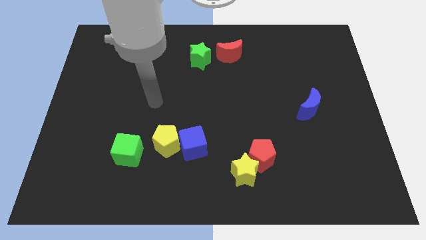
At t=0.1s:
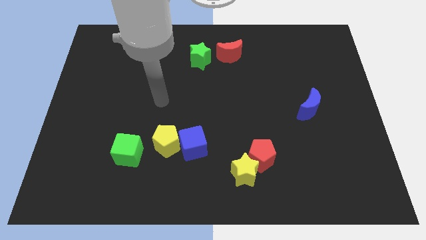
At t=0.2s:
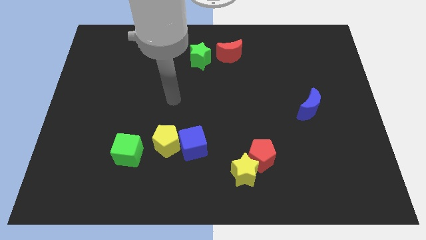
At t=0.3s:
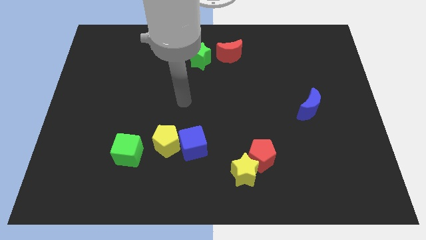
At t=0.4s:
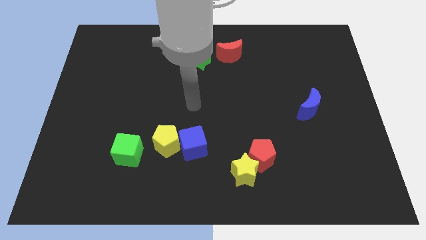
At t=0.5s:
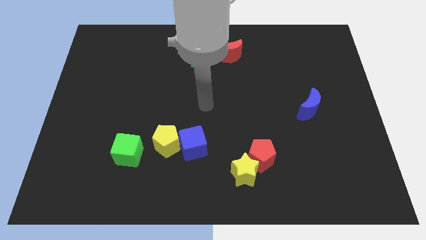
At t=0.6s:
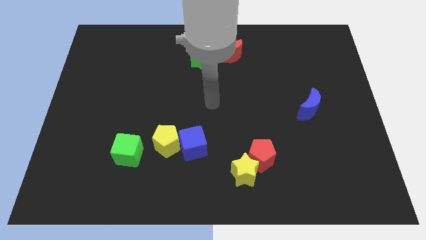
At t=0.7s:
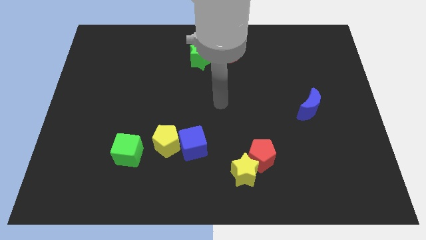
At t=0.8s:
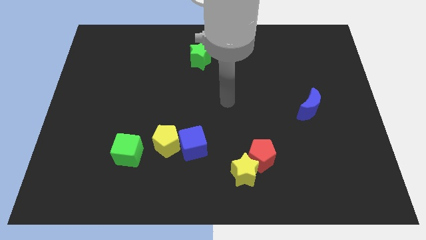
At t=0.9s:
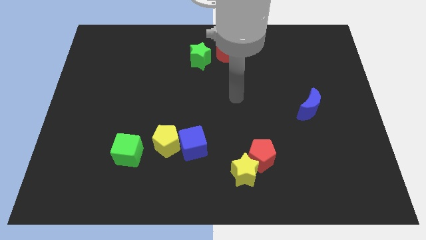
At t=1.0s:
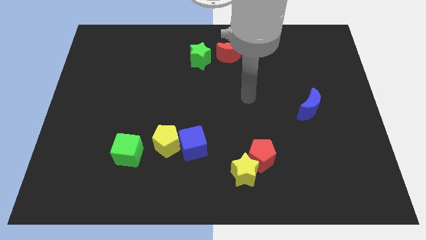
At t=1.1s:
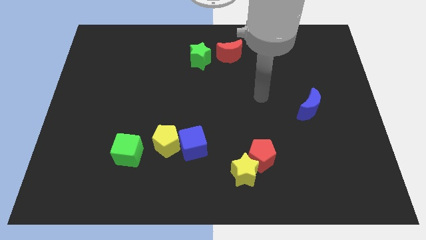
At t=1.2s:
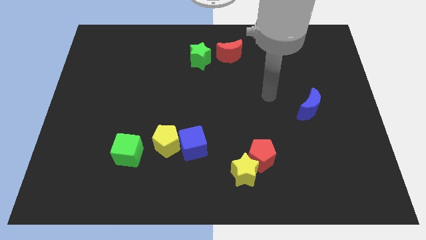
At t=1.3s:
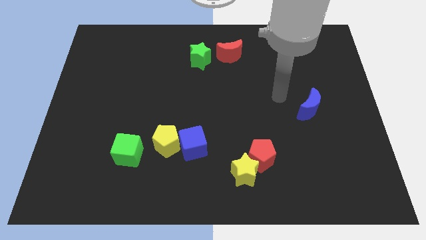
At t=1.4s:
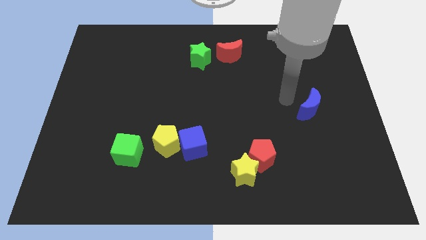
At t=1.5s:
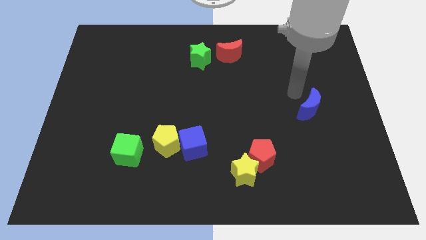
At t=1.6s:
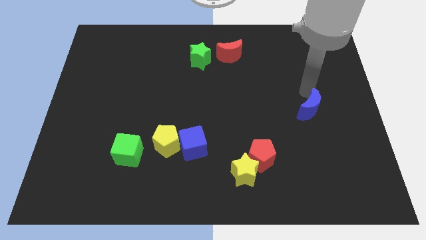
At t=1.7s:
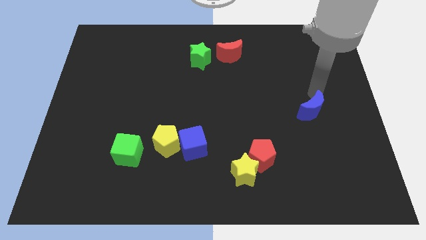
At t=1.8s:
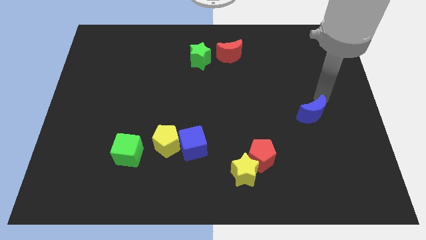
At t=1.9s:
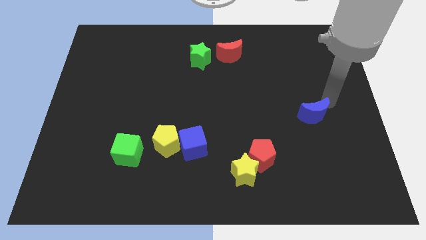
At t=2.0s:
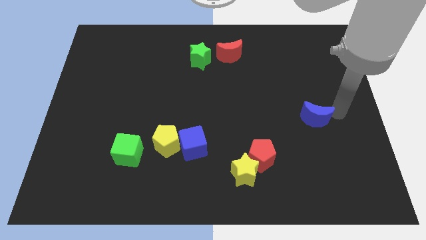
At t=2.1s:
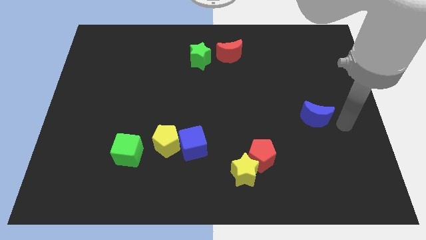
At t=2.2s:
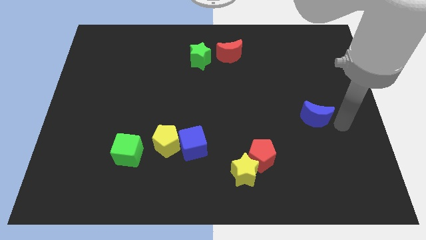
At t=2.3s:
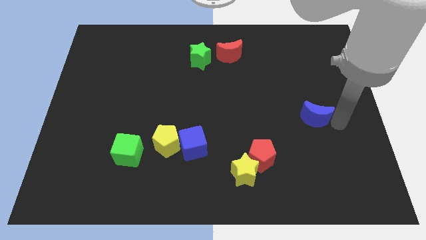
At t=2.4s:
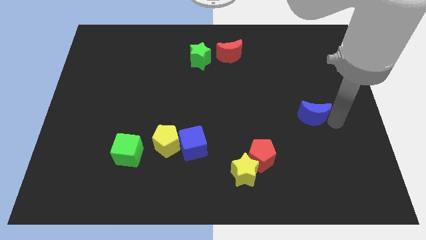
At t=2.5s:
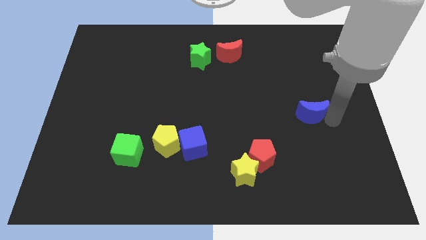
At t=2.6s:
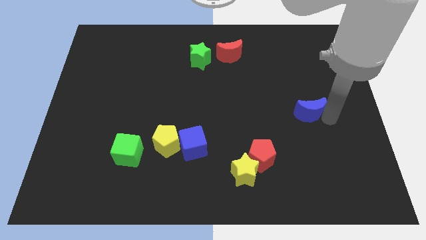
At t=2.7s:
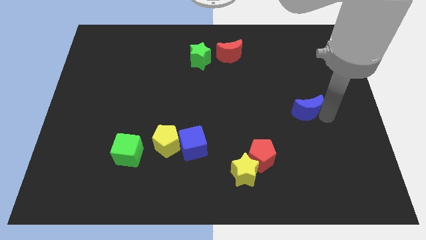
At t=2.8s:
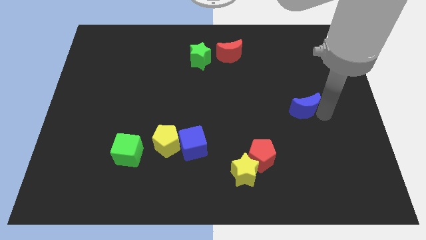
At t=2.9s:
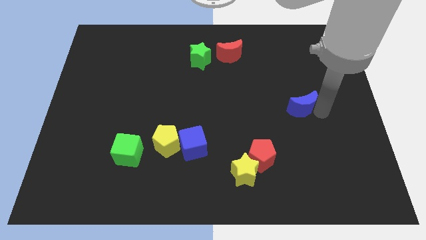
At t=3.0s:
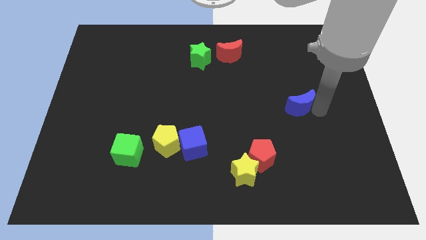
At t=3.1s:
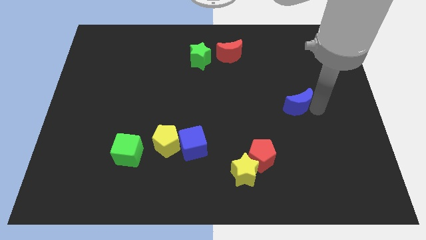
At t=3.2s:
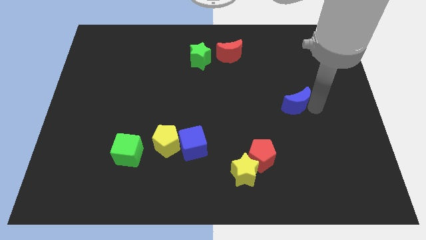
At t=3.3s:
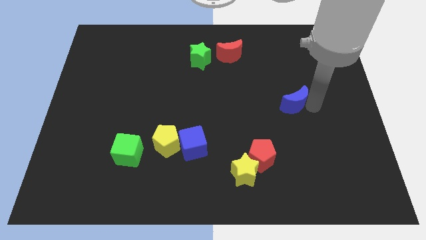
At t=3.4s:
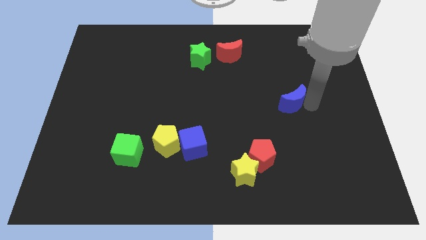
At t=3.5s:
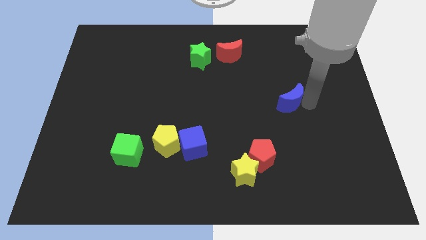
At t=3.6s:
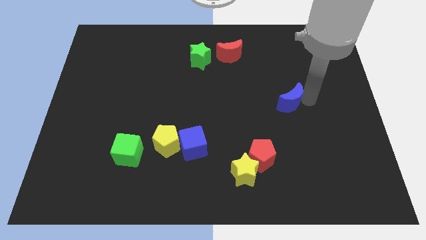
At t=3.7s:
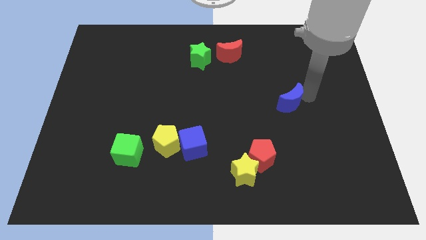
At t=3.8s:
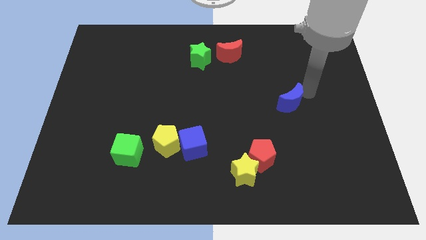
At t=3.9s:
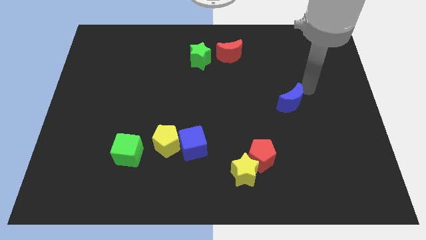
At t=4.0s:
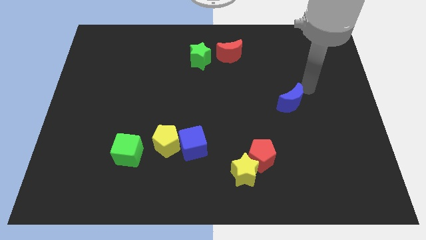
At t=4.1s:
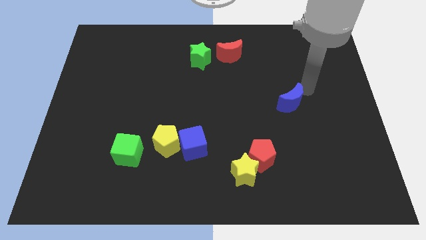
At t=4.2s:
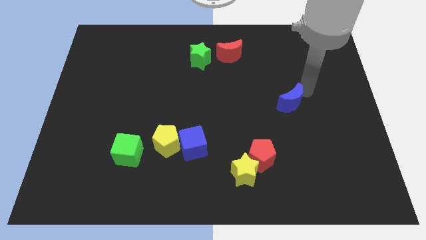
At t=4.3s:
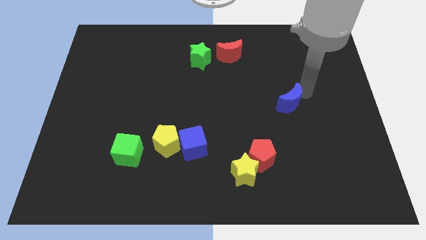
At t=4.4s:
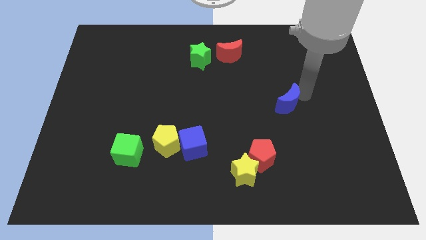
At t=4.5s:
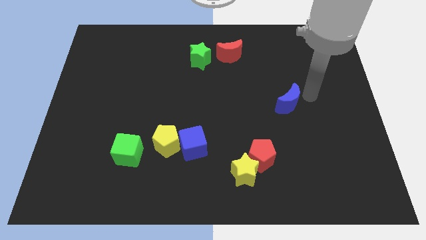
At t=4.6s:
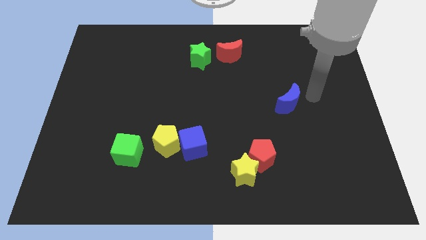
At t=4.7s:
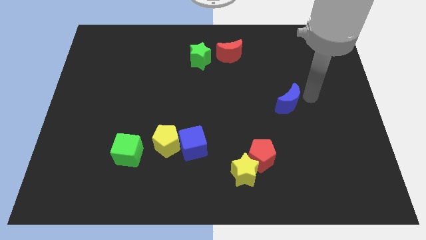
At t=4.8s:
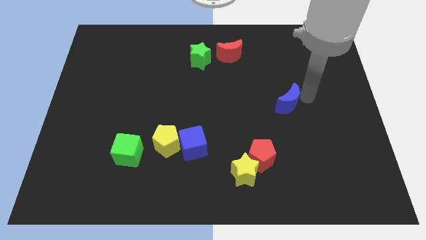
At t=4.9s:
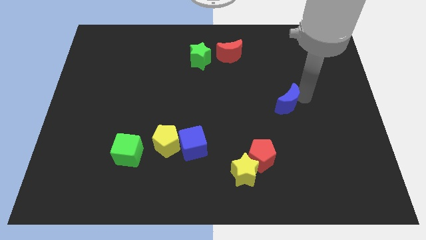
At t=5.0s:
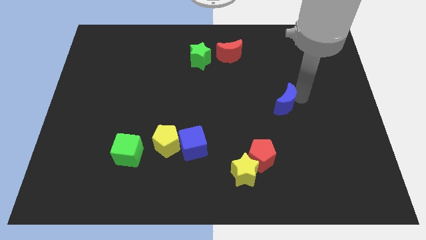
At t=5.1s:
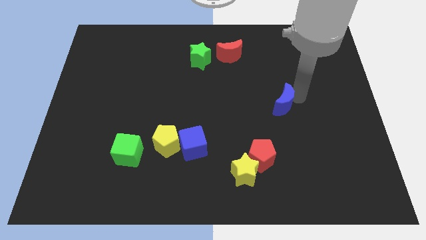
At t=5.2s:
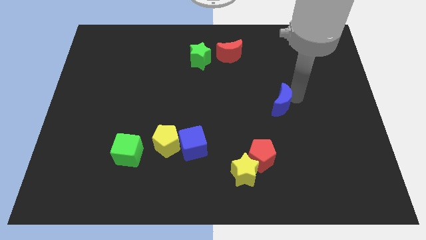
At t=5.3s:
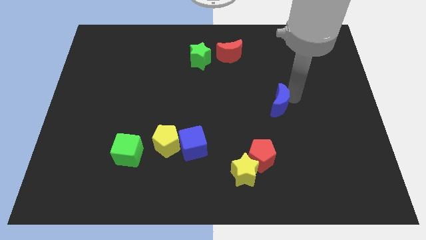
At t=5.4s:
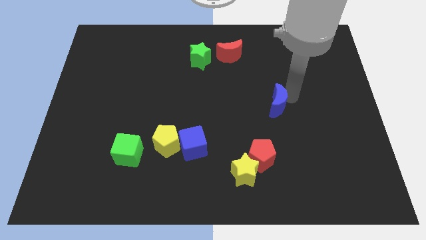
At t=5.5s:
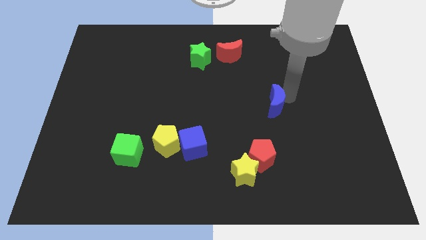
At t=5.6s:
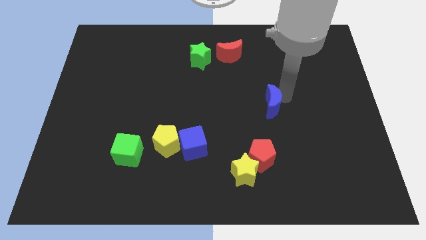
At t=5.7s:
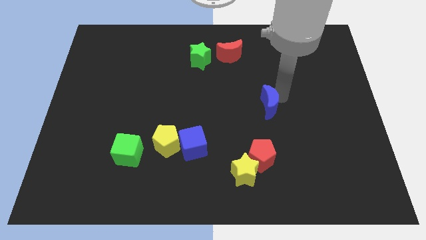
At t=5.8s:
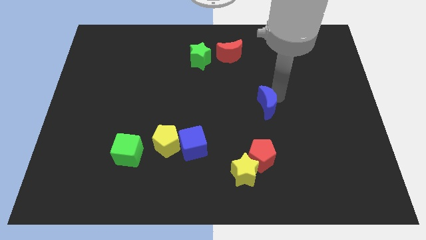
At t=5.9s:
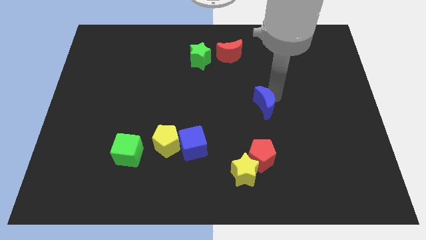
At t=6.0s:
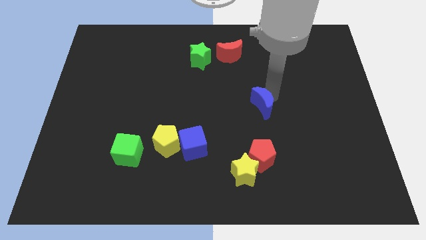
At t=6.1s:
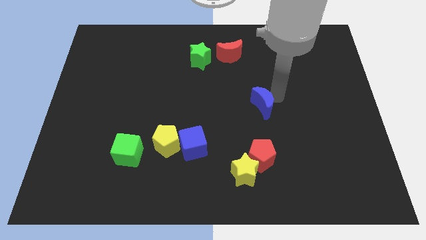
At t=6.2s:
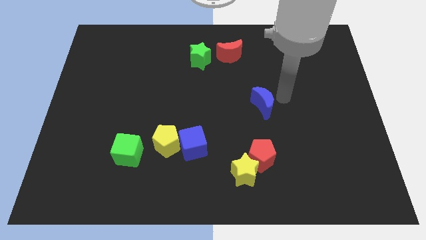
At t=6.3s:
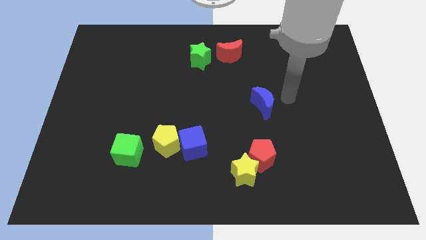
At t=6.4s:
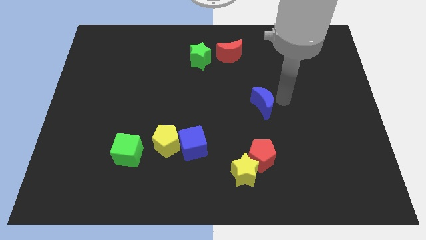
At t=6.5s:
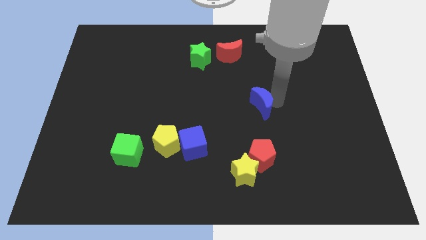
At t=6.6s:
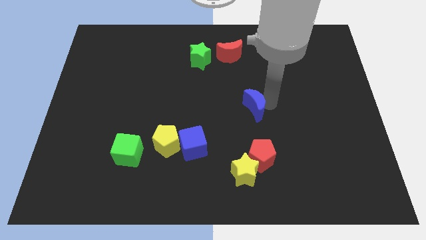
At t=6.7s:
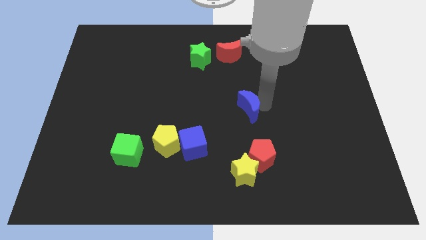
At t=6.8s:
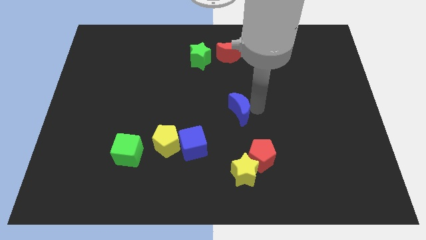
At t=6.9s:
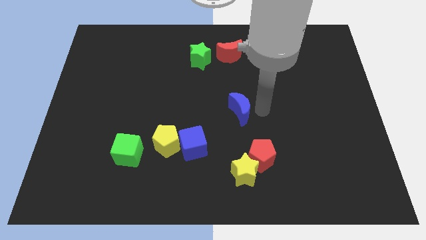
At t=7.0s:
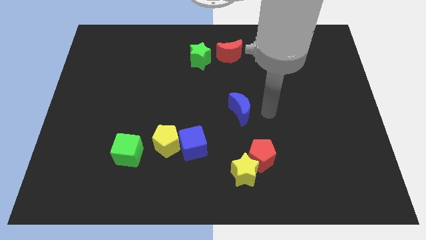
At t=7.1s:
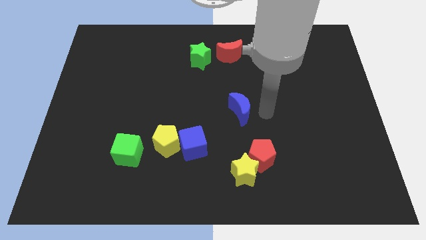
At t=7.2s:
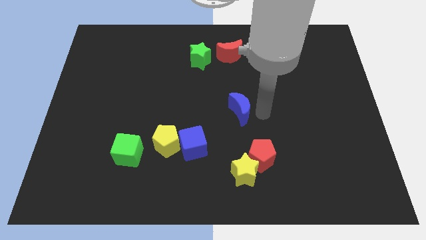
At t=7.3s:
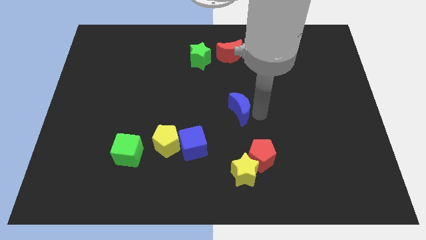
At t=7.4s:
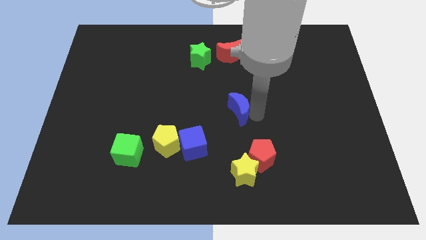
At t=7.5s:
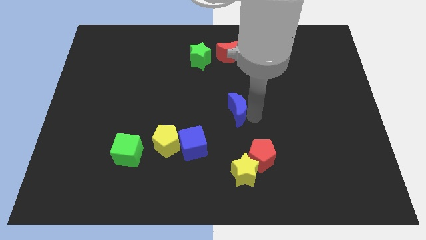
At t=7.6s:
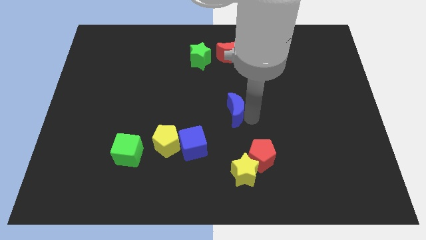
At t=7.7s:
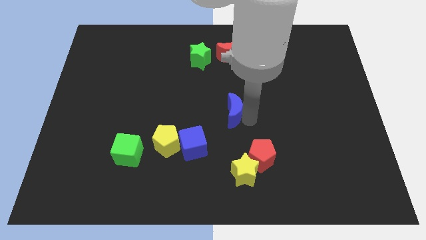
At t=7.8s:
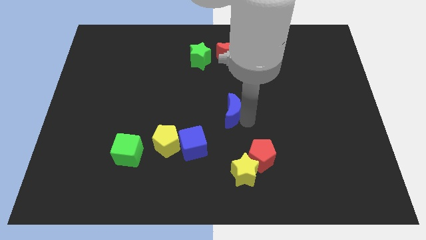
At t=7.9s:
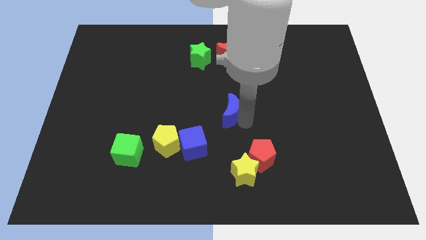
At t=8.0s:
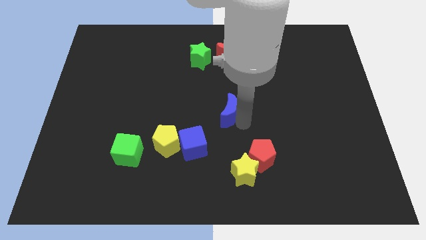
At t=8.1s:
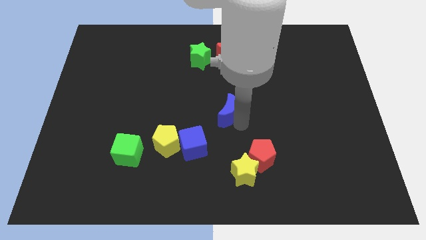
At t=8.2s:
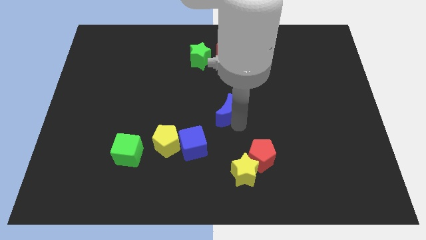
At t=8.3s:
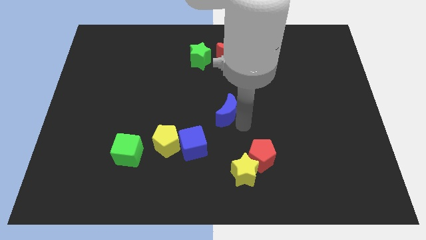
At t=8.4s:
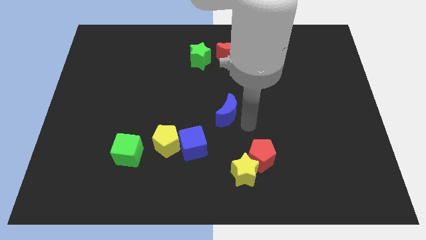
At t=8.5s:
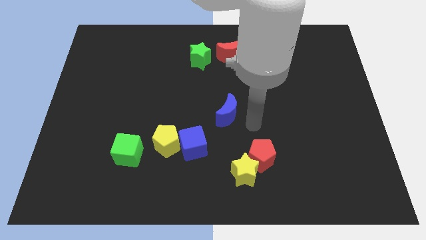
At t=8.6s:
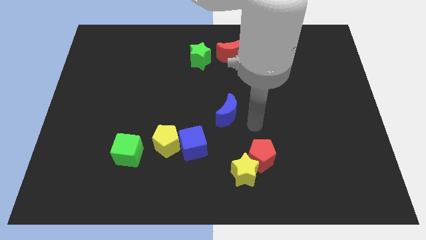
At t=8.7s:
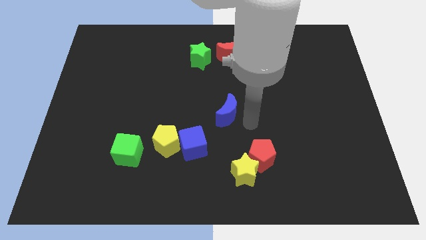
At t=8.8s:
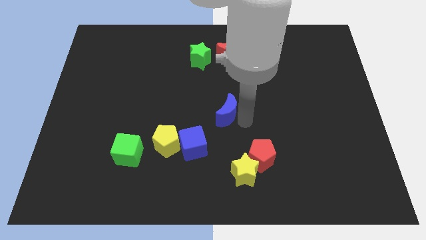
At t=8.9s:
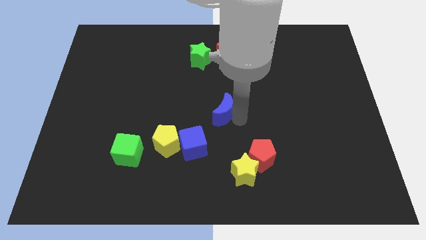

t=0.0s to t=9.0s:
push the blue moon left
